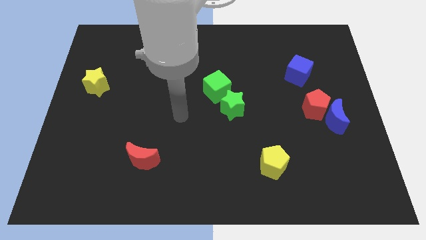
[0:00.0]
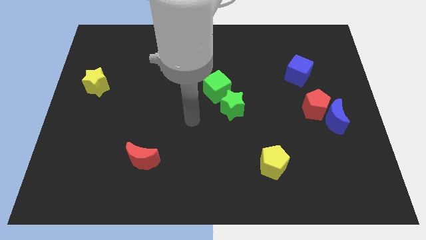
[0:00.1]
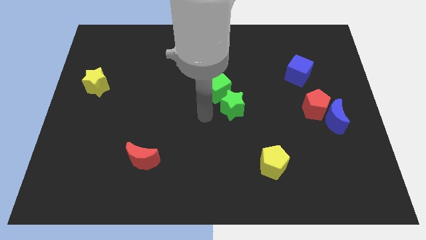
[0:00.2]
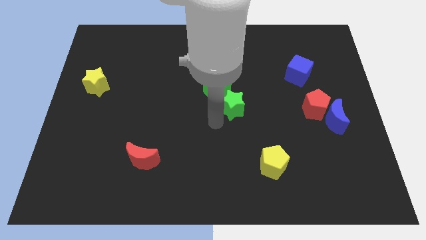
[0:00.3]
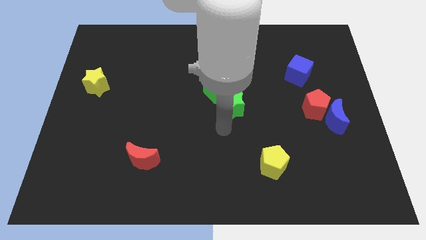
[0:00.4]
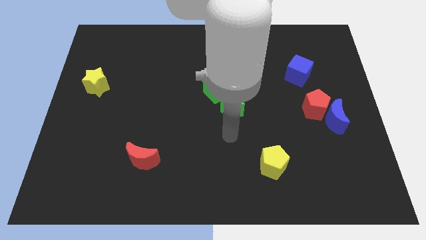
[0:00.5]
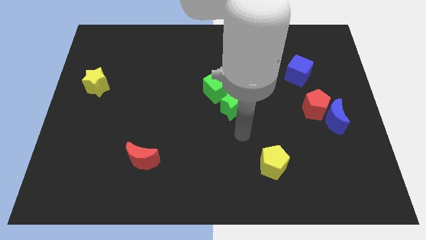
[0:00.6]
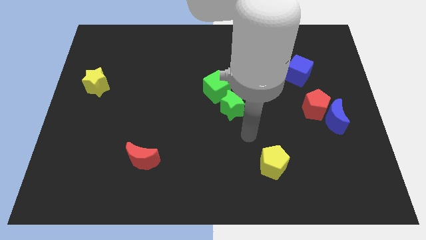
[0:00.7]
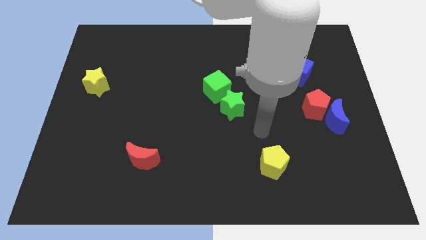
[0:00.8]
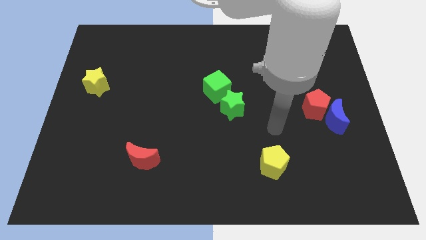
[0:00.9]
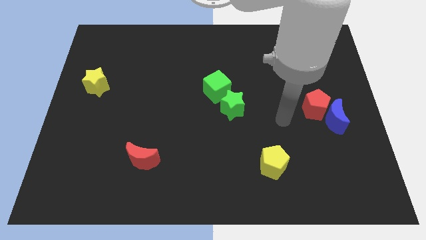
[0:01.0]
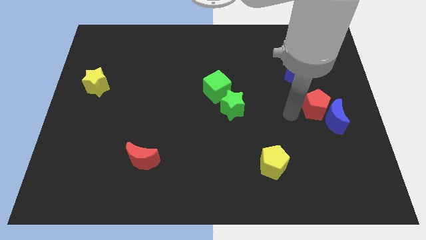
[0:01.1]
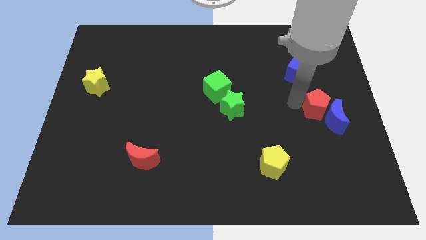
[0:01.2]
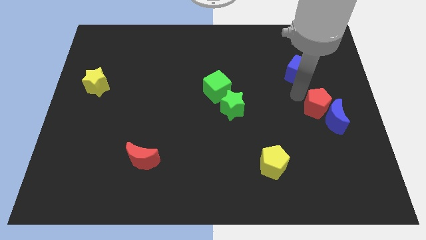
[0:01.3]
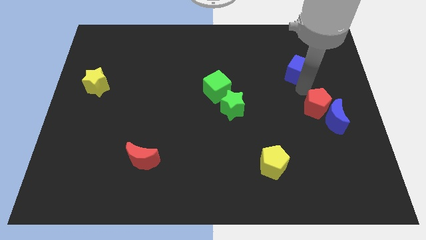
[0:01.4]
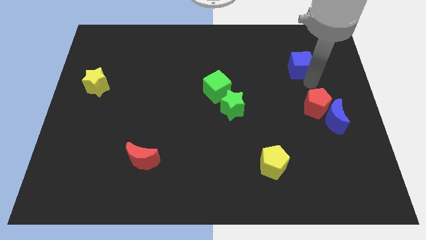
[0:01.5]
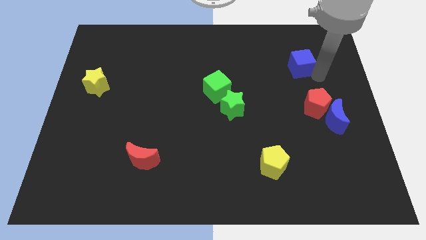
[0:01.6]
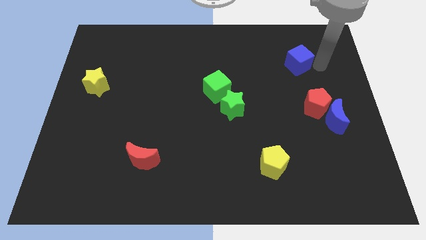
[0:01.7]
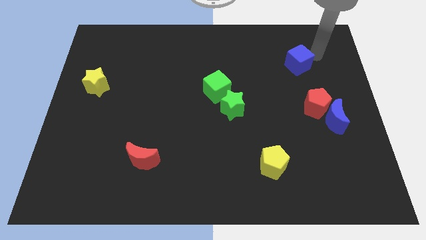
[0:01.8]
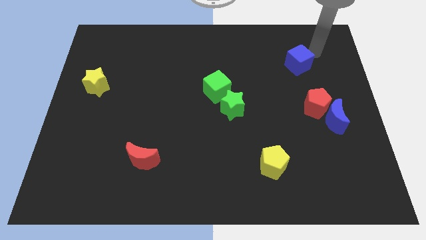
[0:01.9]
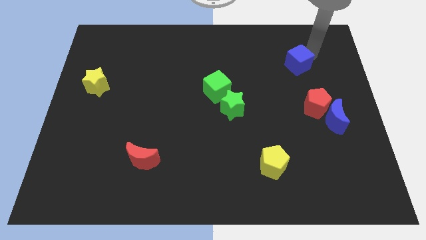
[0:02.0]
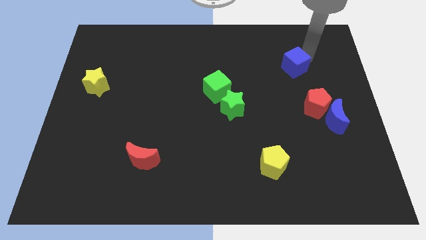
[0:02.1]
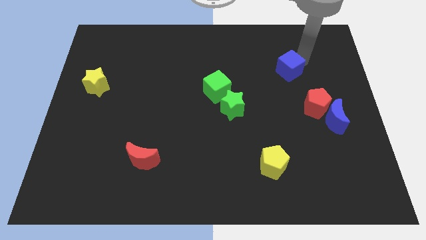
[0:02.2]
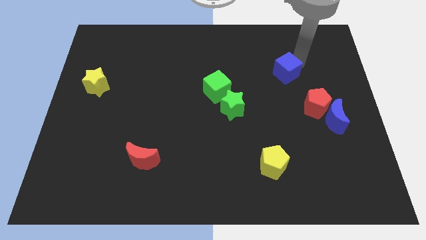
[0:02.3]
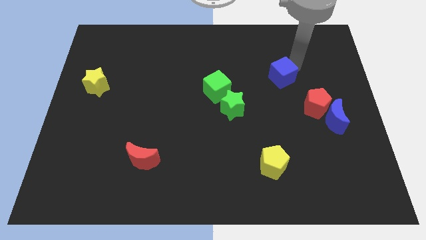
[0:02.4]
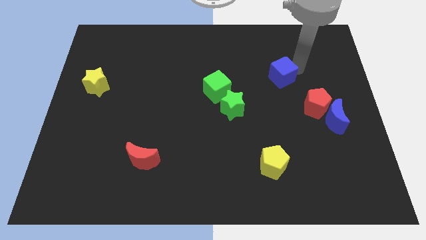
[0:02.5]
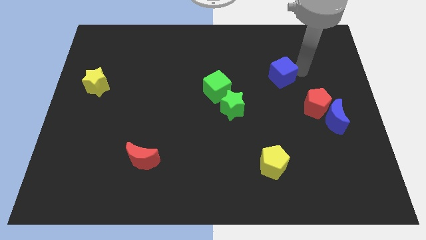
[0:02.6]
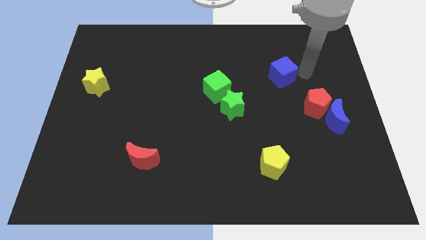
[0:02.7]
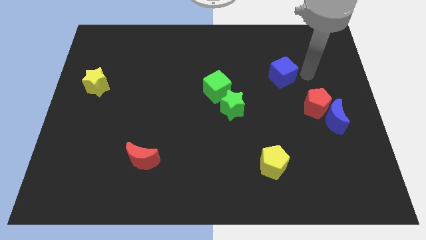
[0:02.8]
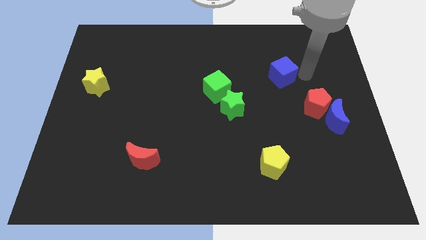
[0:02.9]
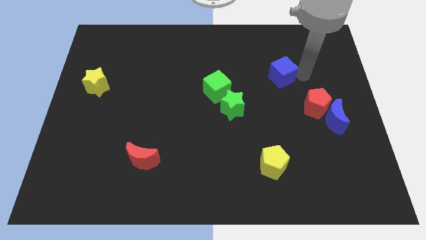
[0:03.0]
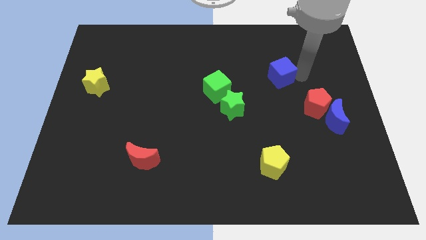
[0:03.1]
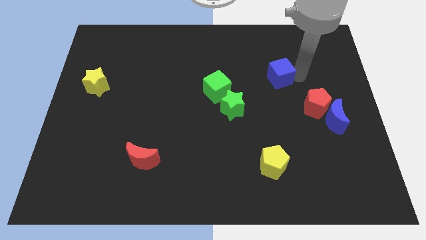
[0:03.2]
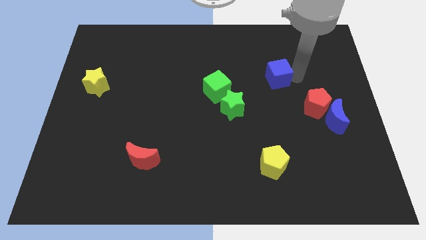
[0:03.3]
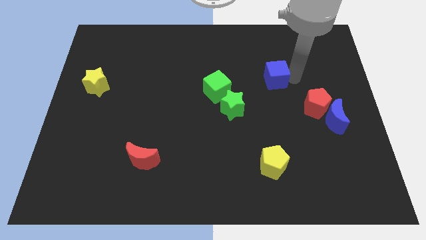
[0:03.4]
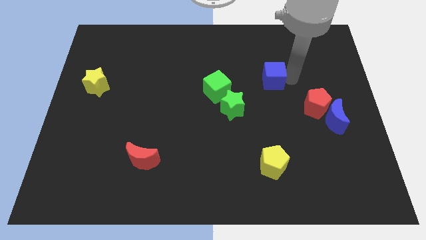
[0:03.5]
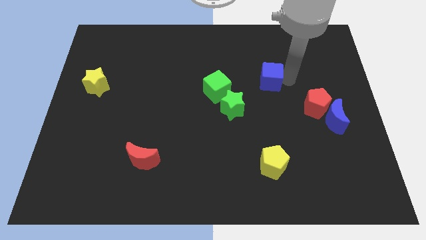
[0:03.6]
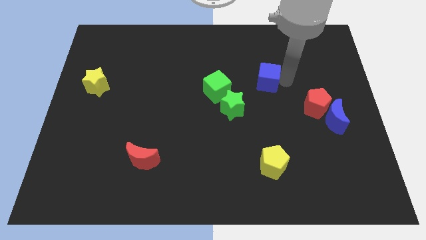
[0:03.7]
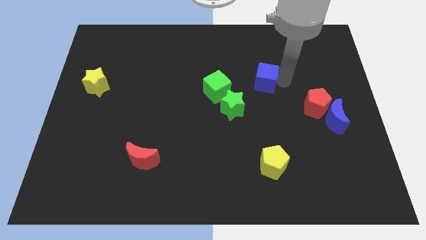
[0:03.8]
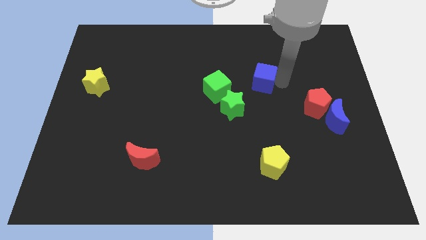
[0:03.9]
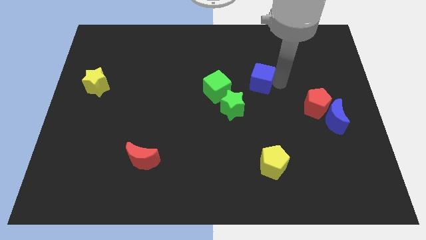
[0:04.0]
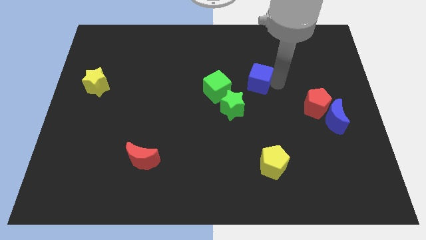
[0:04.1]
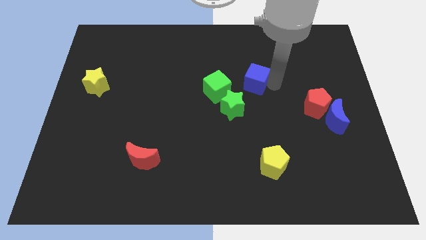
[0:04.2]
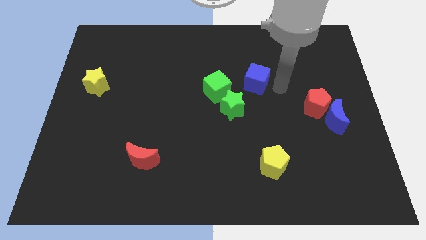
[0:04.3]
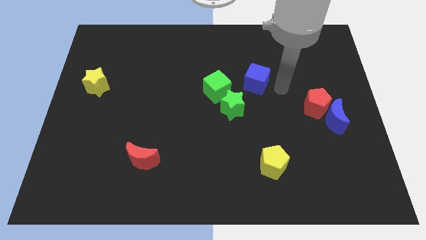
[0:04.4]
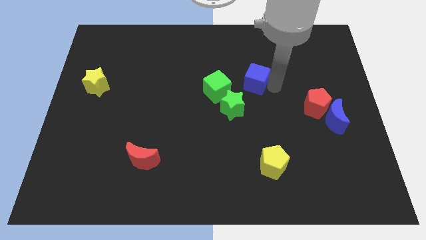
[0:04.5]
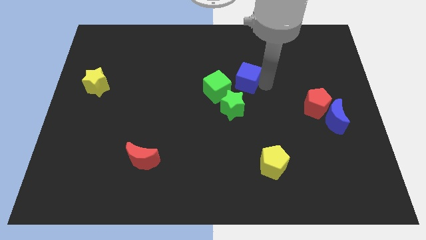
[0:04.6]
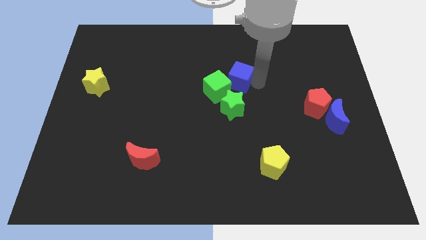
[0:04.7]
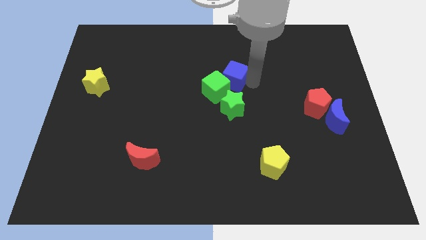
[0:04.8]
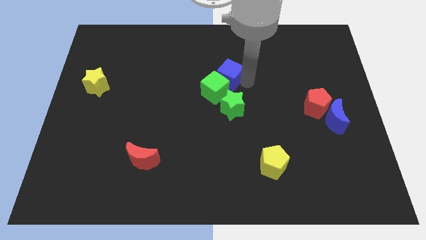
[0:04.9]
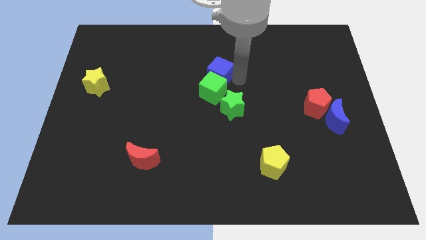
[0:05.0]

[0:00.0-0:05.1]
move the blue cube to the left

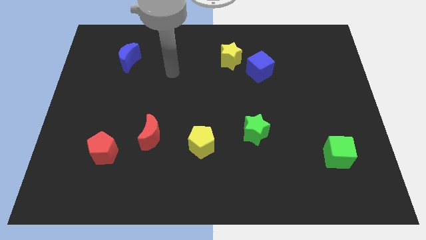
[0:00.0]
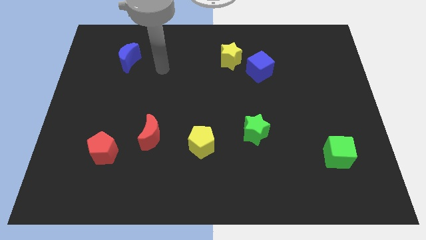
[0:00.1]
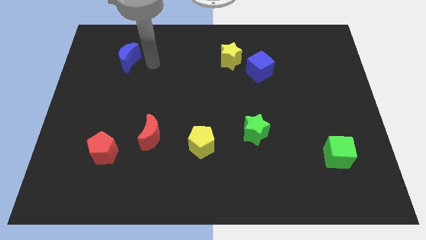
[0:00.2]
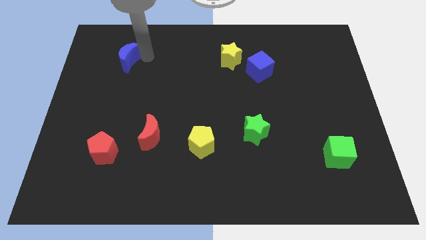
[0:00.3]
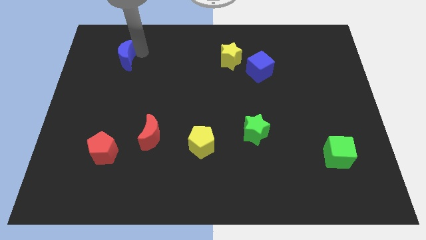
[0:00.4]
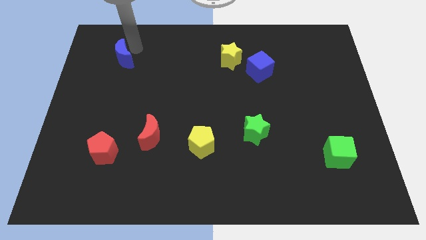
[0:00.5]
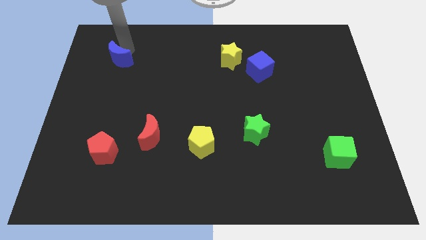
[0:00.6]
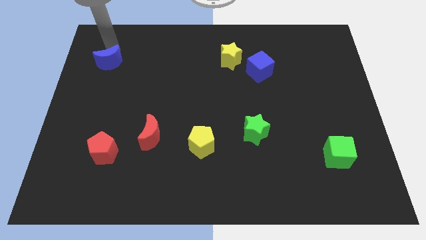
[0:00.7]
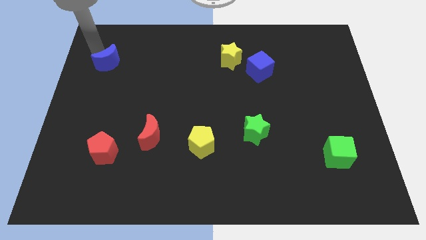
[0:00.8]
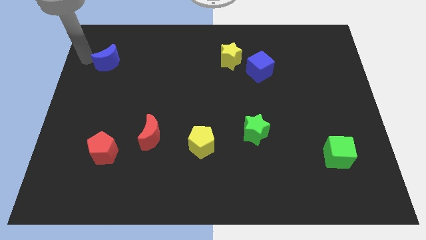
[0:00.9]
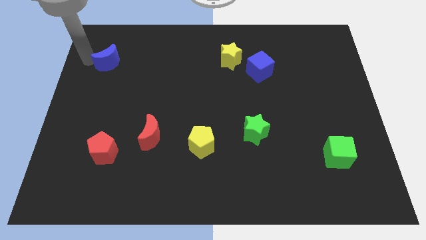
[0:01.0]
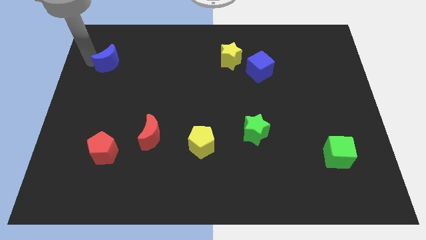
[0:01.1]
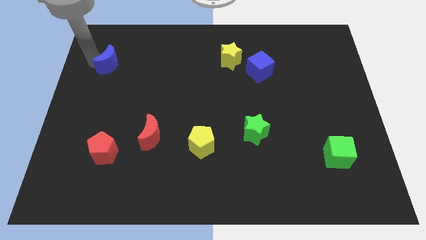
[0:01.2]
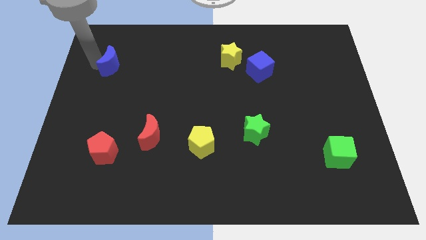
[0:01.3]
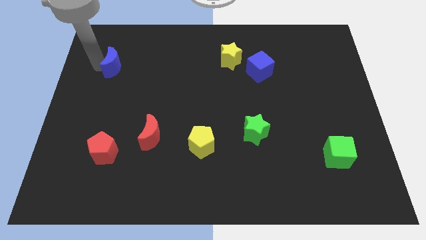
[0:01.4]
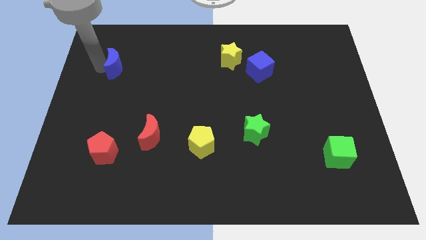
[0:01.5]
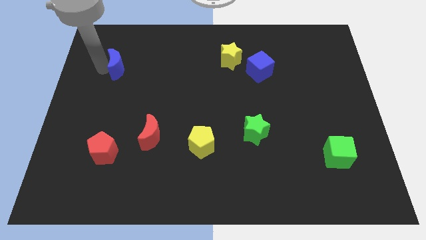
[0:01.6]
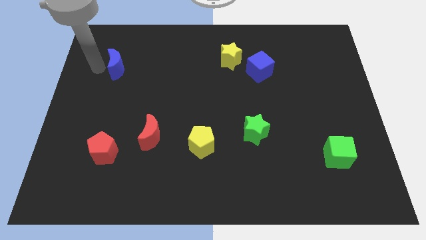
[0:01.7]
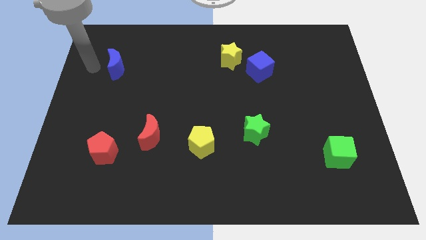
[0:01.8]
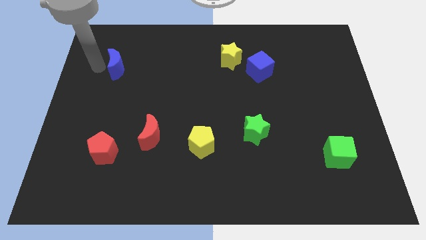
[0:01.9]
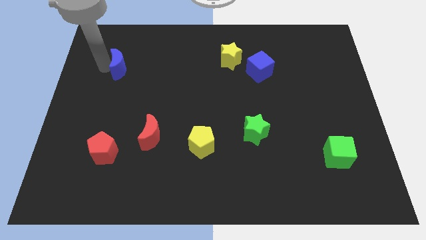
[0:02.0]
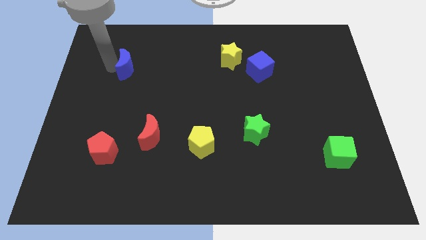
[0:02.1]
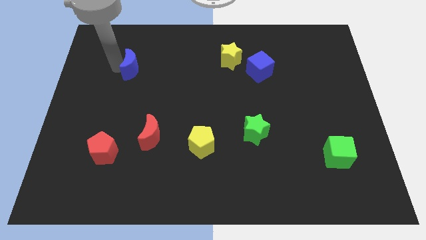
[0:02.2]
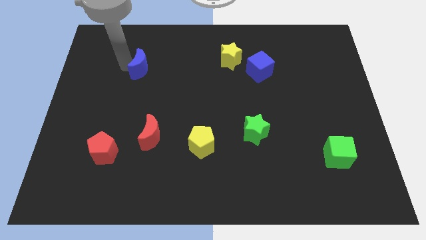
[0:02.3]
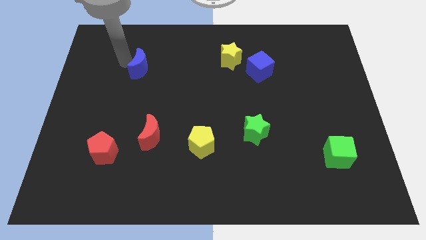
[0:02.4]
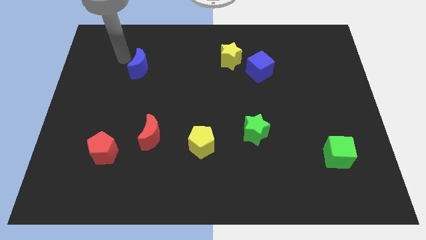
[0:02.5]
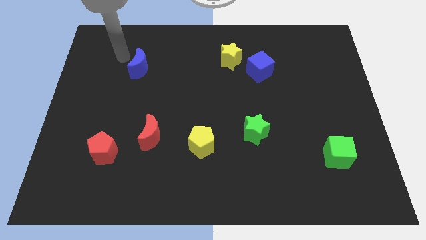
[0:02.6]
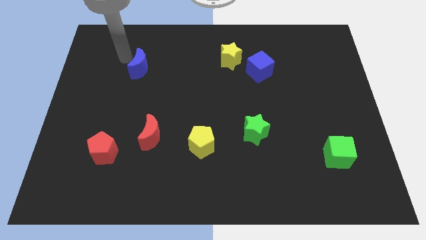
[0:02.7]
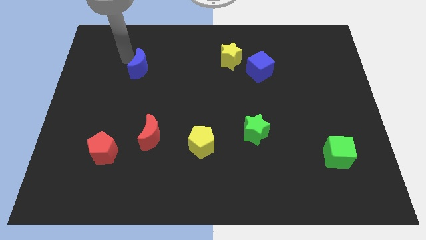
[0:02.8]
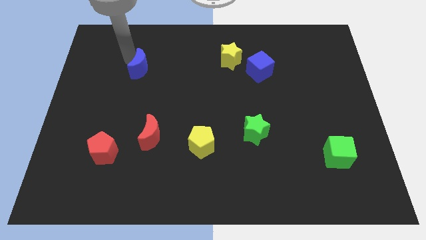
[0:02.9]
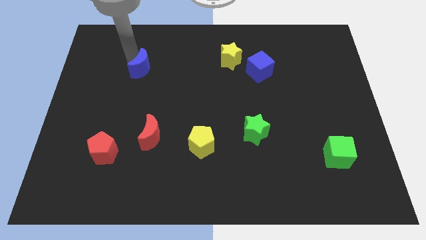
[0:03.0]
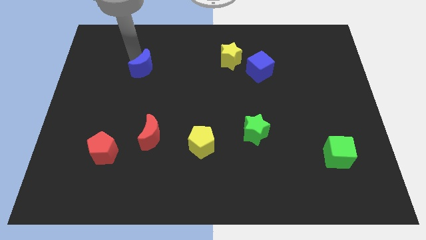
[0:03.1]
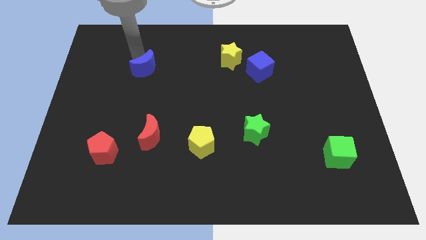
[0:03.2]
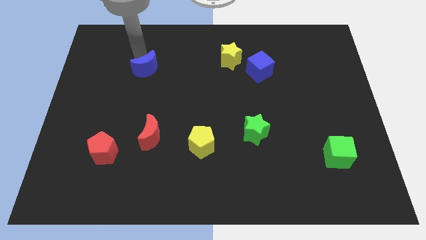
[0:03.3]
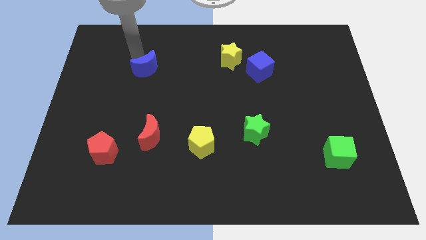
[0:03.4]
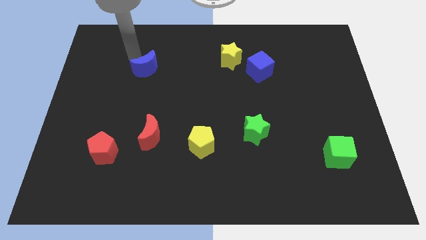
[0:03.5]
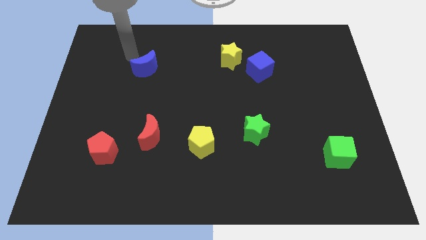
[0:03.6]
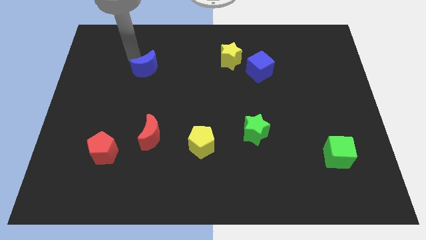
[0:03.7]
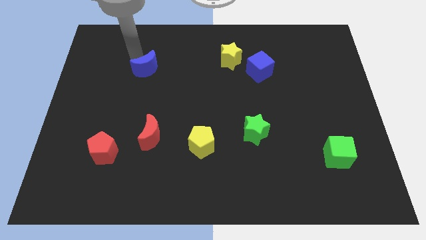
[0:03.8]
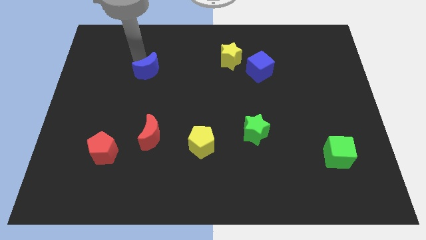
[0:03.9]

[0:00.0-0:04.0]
move the blue moon a little bit down and right
